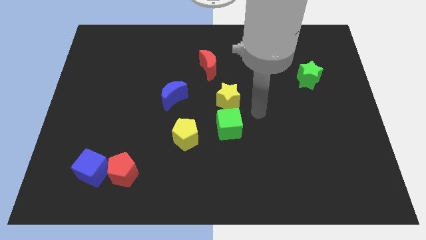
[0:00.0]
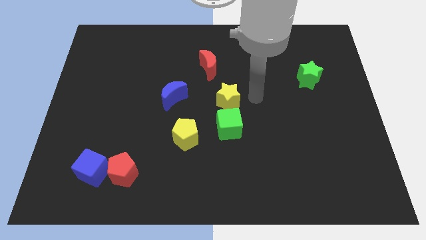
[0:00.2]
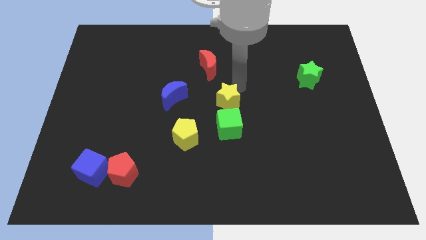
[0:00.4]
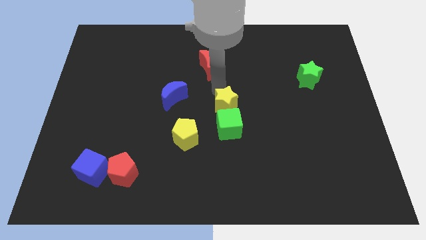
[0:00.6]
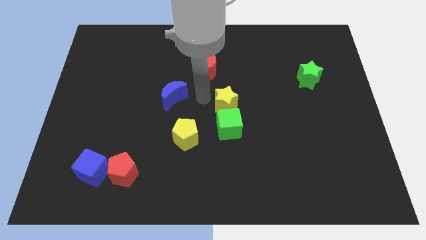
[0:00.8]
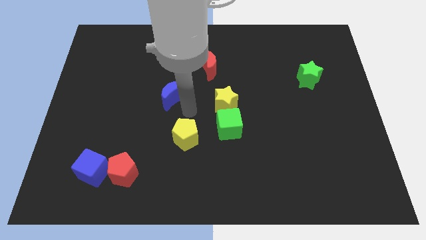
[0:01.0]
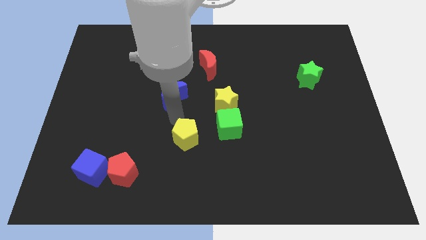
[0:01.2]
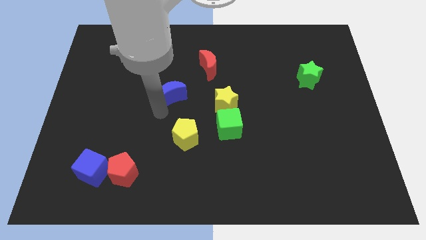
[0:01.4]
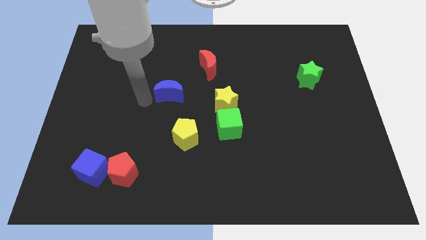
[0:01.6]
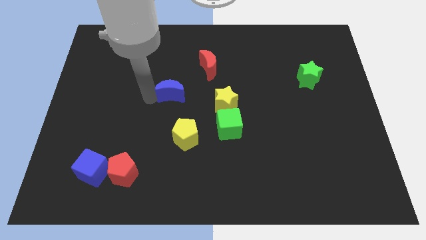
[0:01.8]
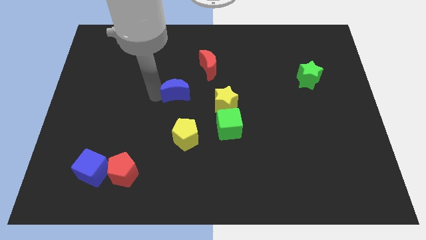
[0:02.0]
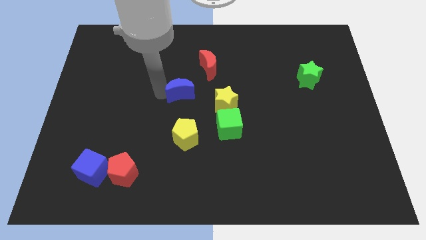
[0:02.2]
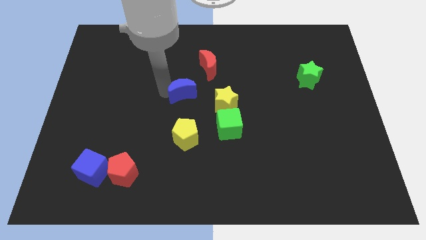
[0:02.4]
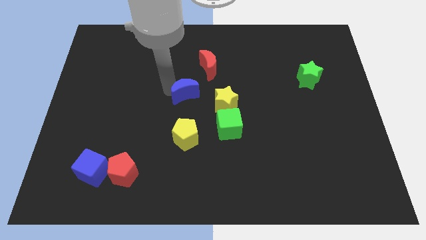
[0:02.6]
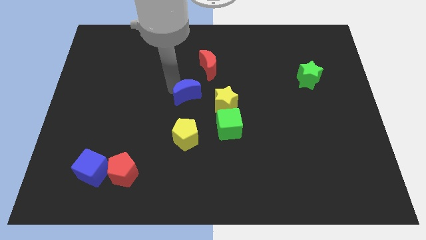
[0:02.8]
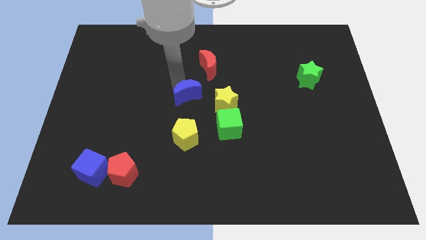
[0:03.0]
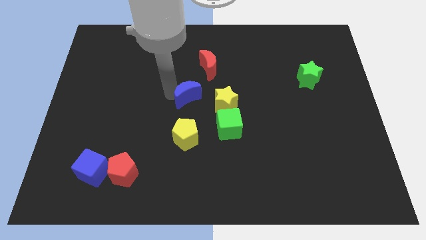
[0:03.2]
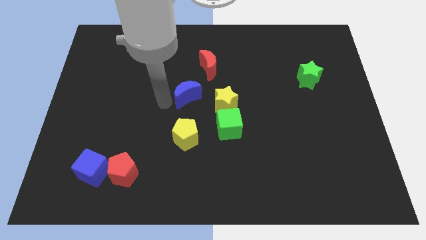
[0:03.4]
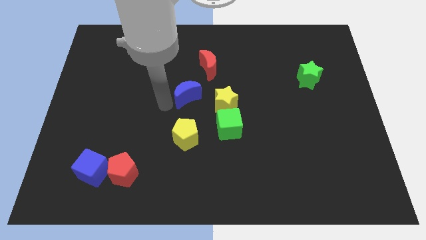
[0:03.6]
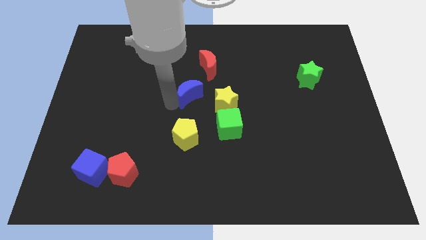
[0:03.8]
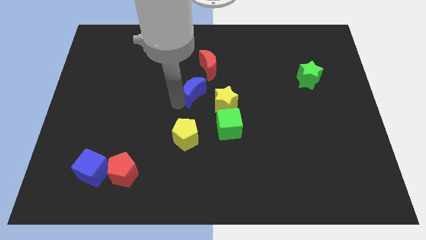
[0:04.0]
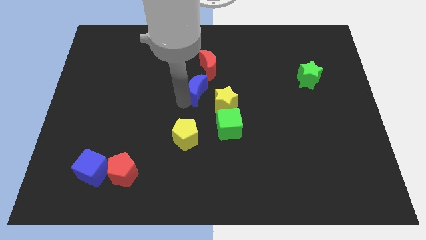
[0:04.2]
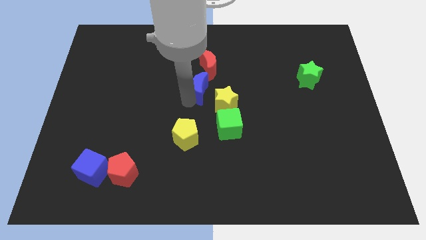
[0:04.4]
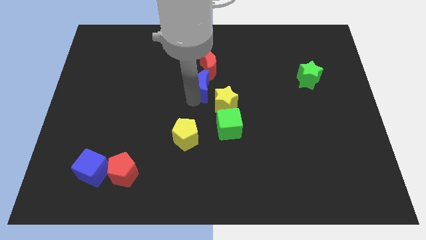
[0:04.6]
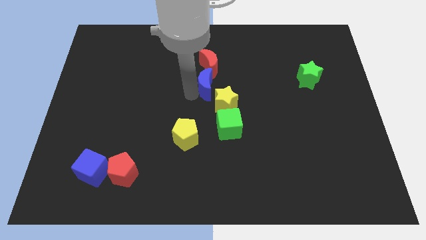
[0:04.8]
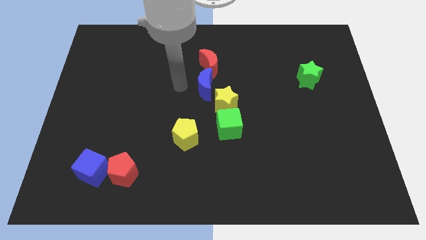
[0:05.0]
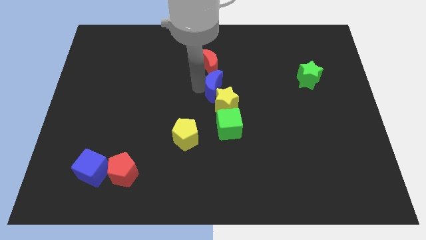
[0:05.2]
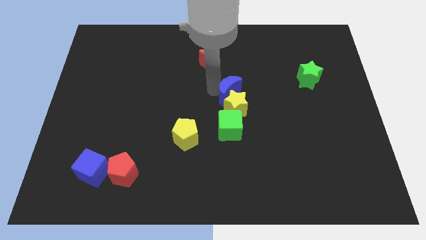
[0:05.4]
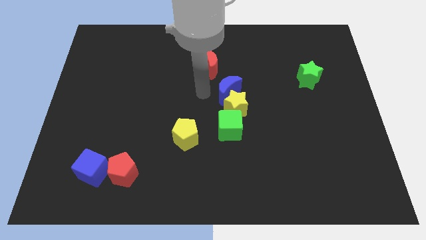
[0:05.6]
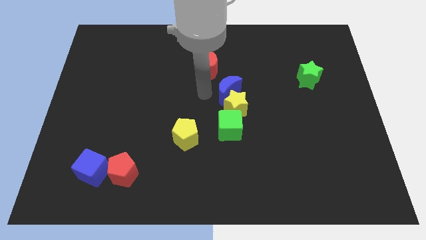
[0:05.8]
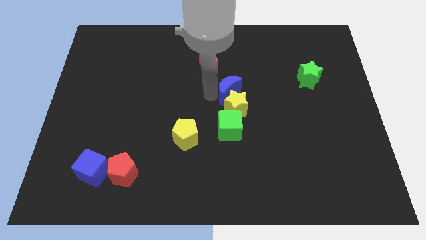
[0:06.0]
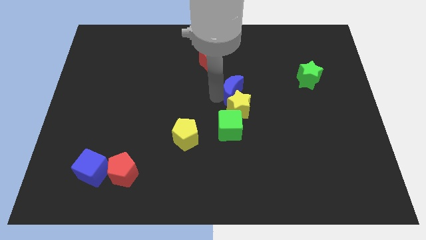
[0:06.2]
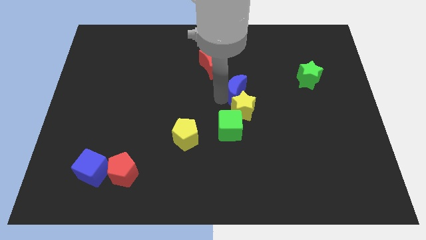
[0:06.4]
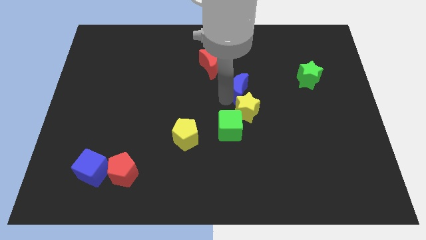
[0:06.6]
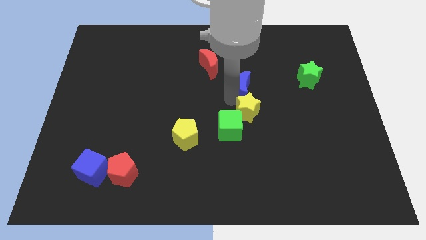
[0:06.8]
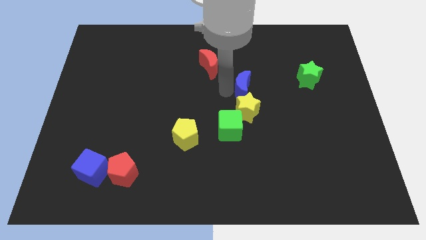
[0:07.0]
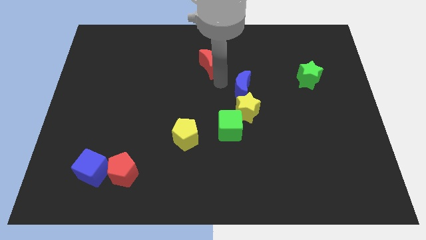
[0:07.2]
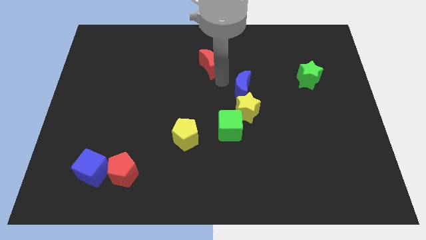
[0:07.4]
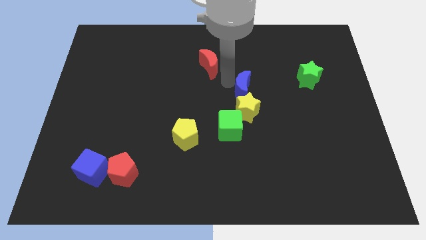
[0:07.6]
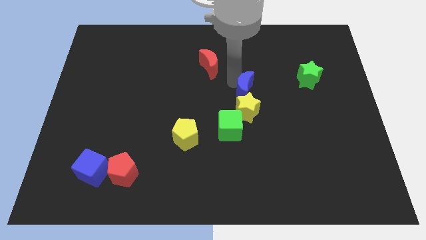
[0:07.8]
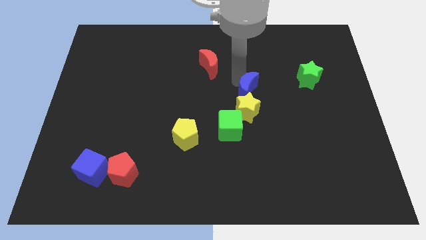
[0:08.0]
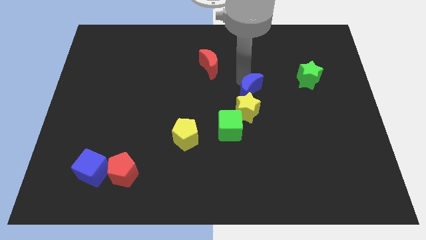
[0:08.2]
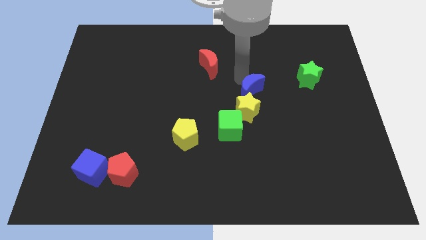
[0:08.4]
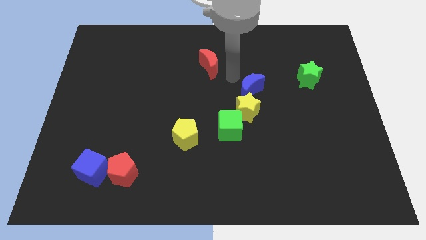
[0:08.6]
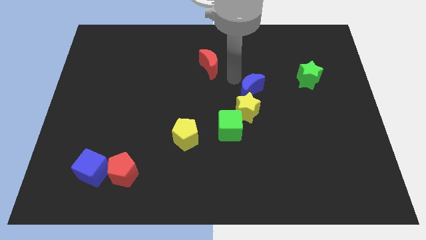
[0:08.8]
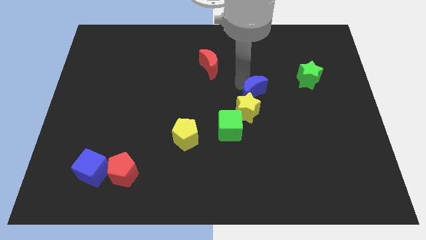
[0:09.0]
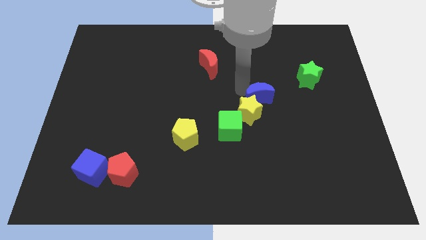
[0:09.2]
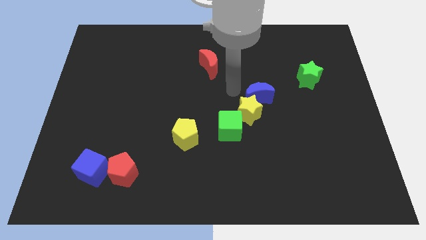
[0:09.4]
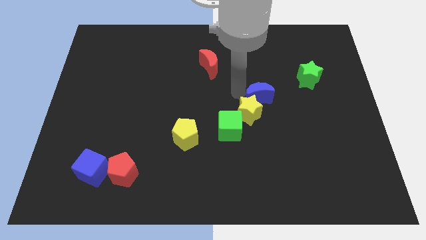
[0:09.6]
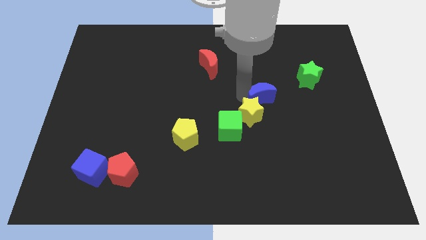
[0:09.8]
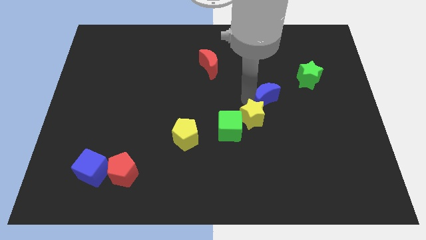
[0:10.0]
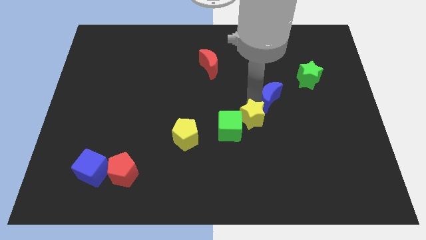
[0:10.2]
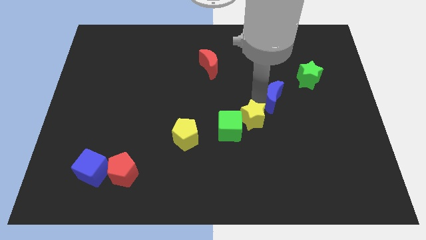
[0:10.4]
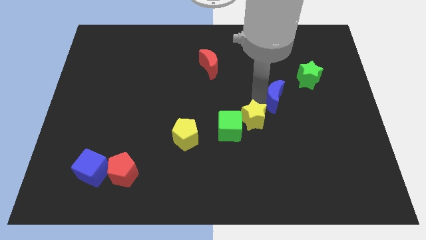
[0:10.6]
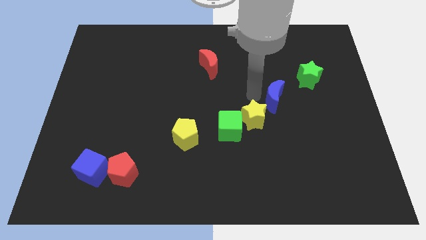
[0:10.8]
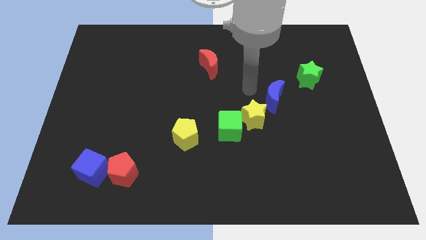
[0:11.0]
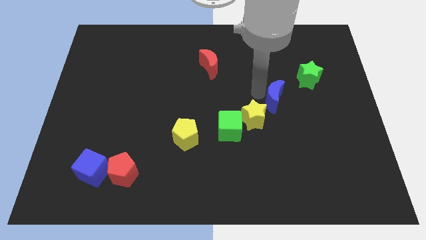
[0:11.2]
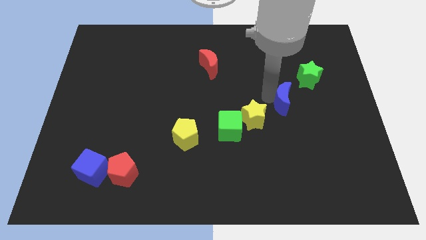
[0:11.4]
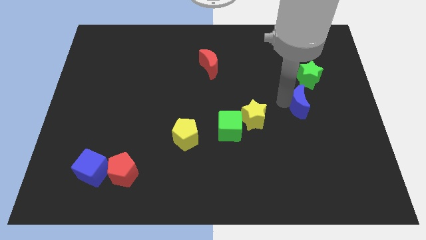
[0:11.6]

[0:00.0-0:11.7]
put the blue moon to the bottom side of the green star

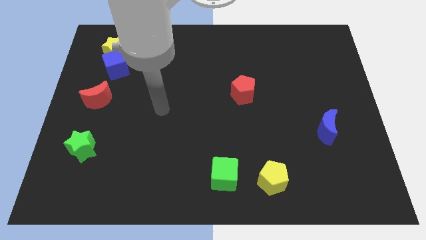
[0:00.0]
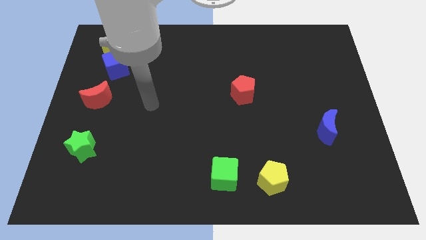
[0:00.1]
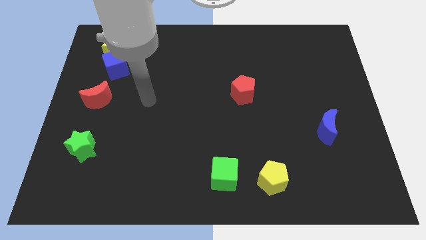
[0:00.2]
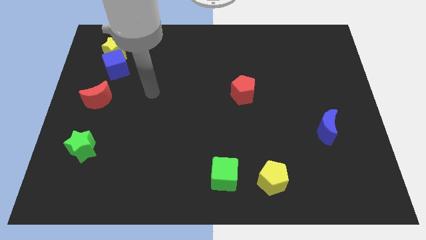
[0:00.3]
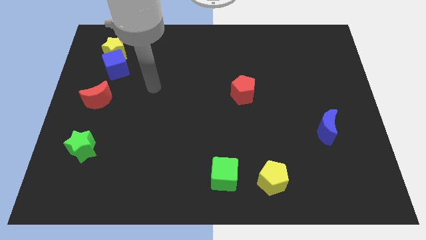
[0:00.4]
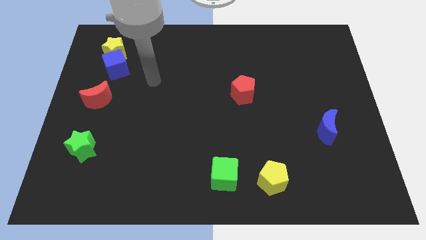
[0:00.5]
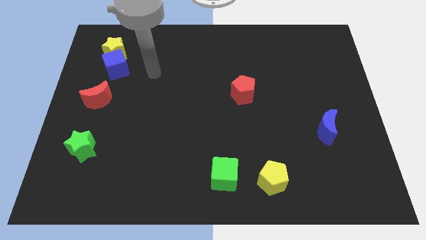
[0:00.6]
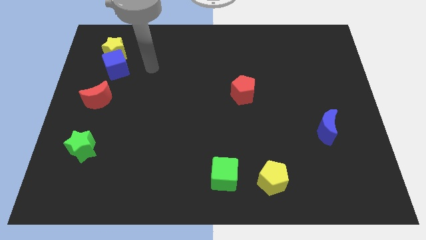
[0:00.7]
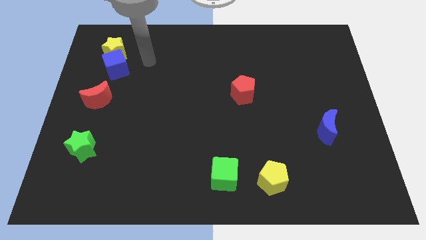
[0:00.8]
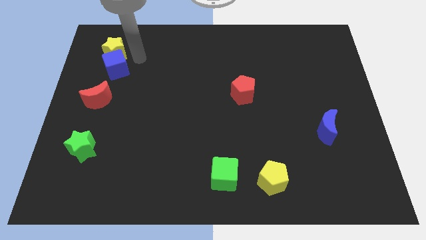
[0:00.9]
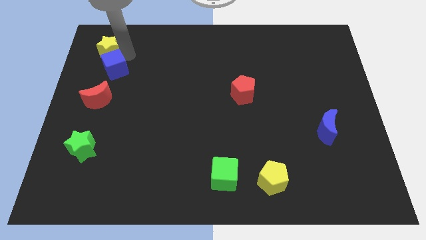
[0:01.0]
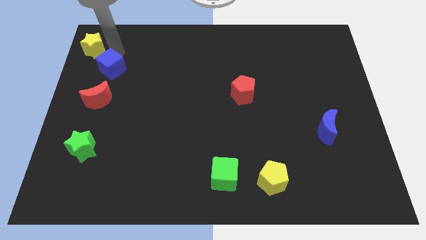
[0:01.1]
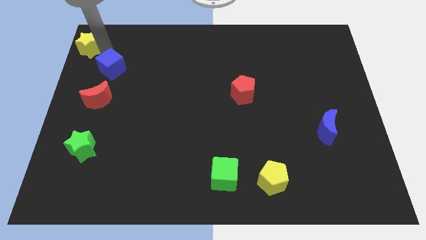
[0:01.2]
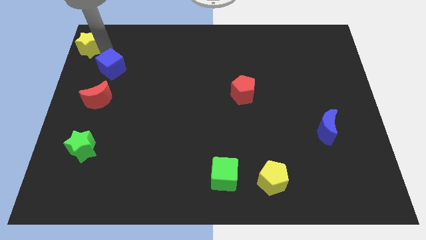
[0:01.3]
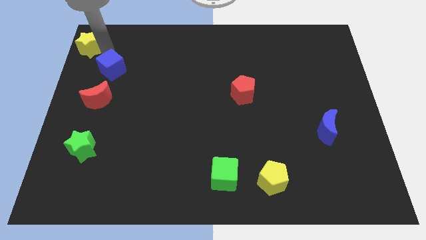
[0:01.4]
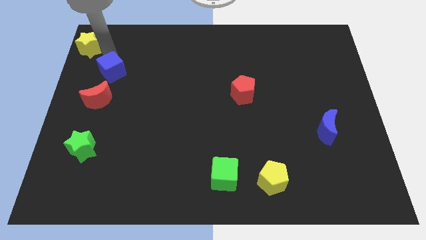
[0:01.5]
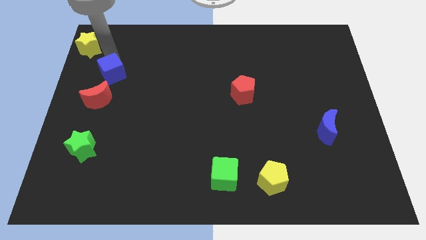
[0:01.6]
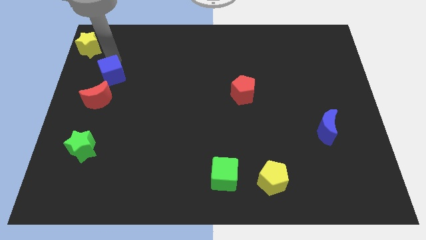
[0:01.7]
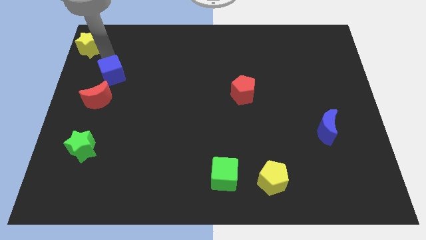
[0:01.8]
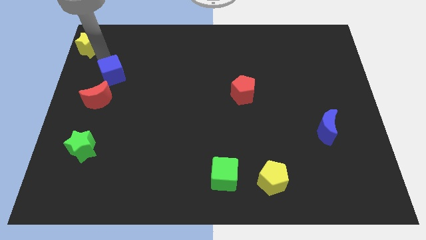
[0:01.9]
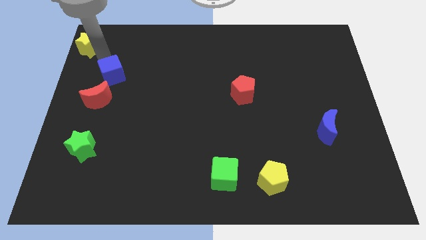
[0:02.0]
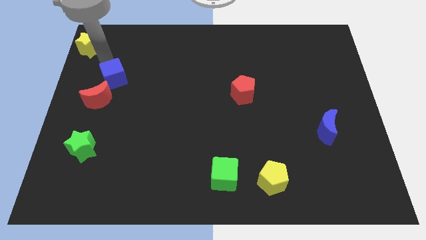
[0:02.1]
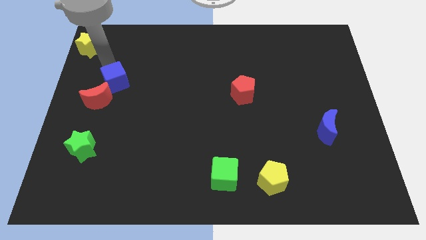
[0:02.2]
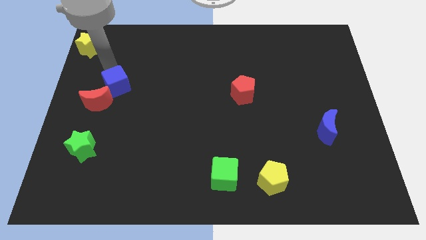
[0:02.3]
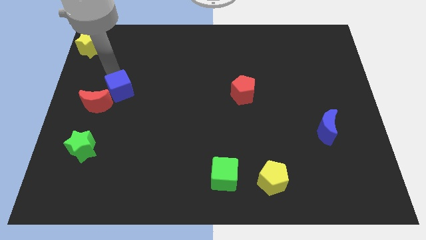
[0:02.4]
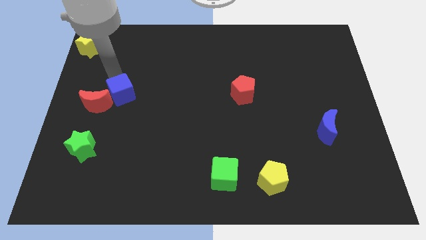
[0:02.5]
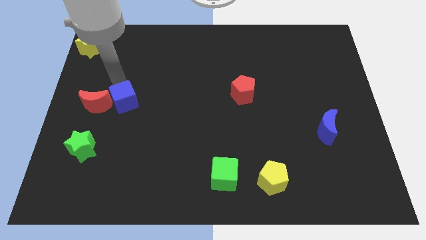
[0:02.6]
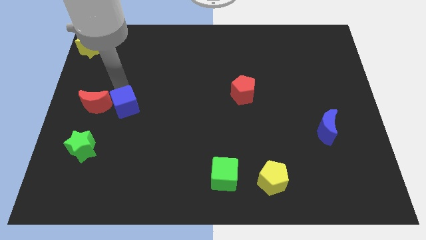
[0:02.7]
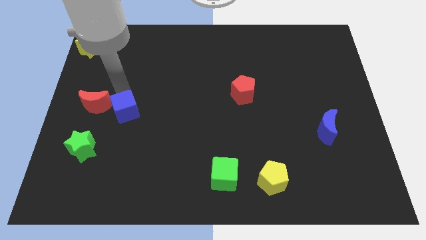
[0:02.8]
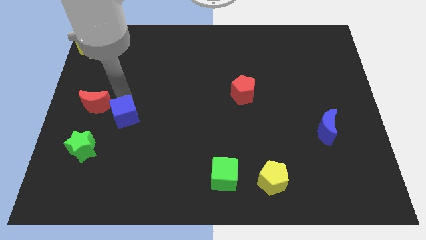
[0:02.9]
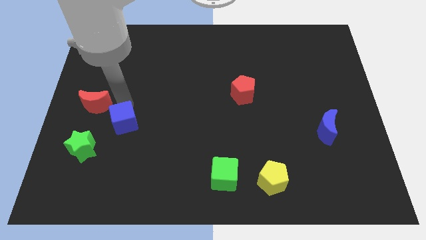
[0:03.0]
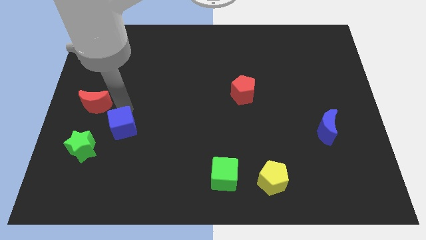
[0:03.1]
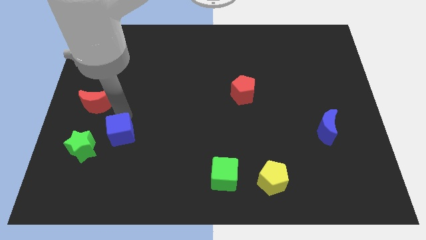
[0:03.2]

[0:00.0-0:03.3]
move the blue cube to the right side of the green star
